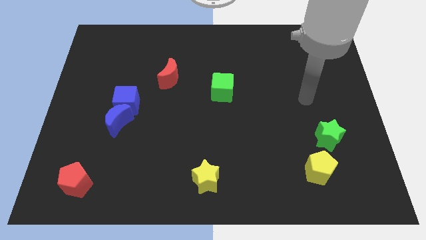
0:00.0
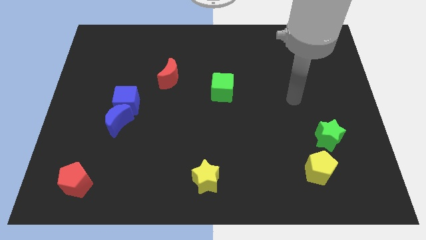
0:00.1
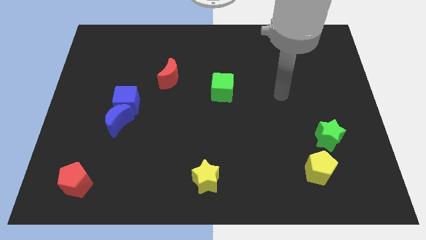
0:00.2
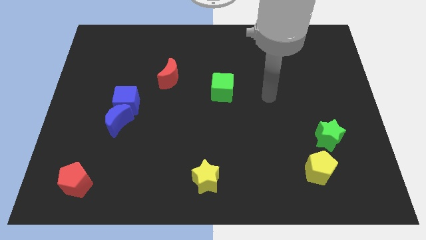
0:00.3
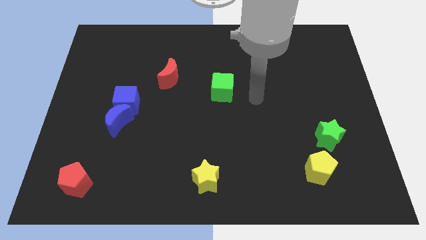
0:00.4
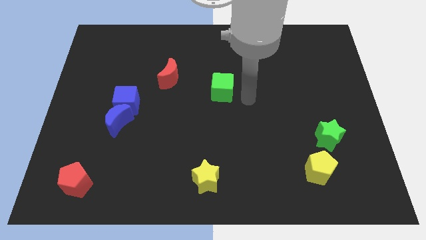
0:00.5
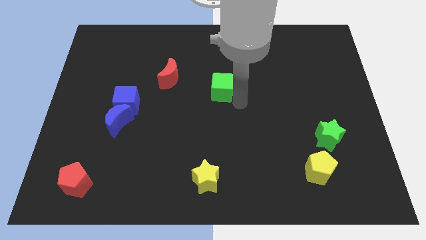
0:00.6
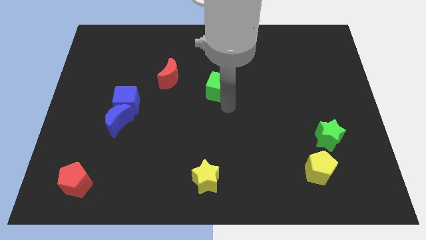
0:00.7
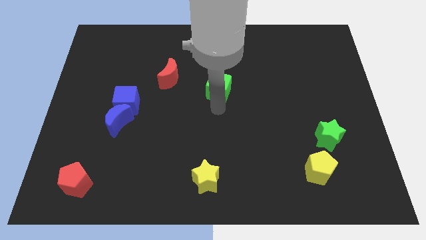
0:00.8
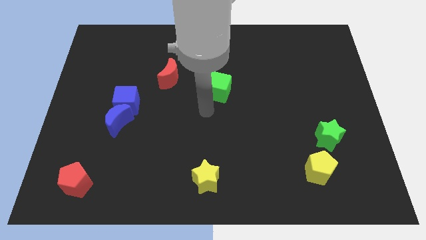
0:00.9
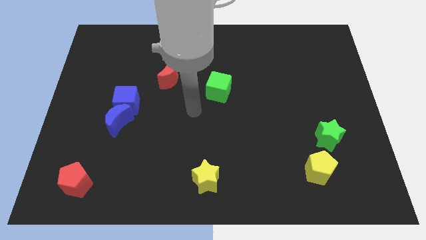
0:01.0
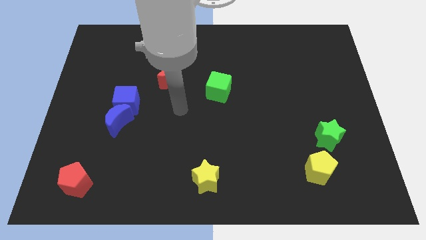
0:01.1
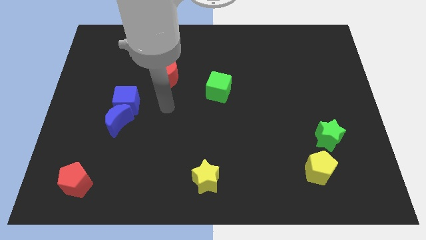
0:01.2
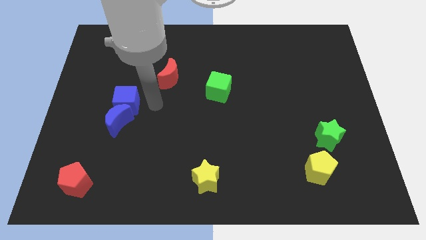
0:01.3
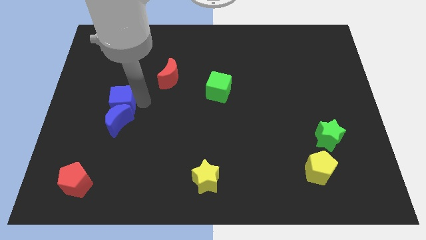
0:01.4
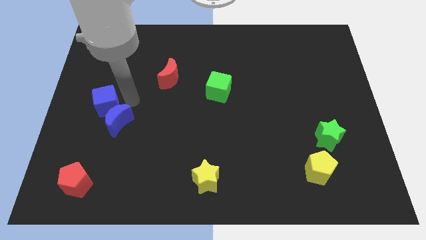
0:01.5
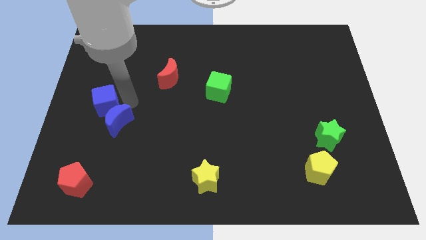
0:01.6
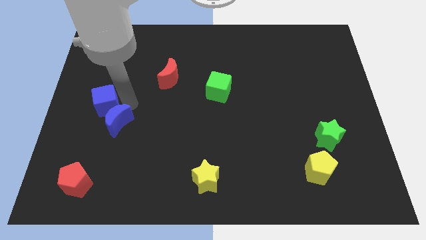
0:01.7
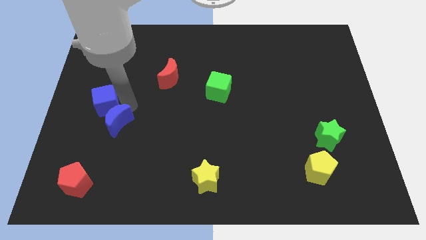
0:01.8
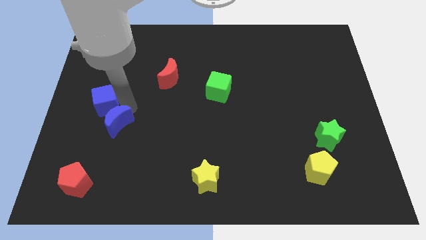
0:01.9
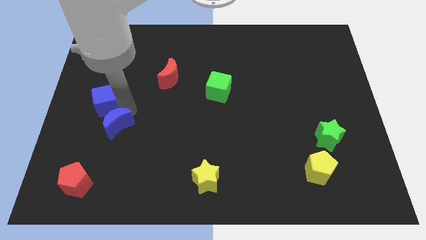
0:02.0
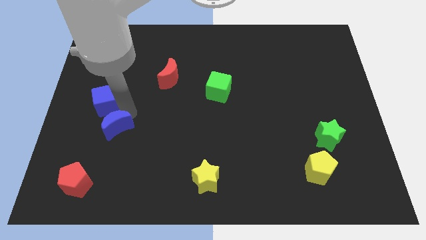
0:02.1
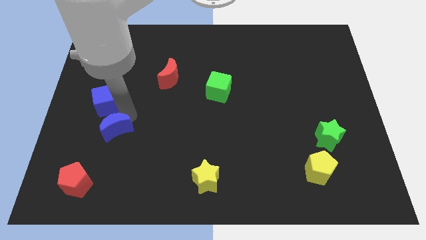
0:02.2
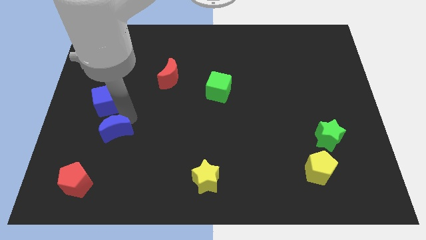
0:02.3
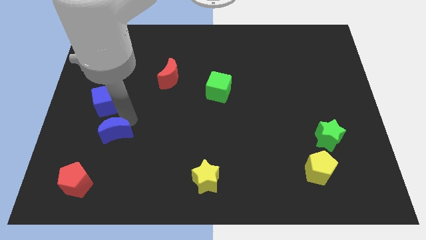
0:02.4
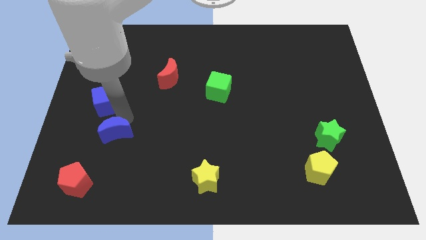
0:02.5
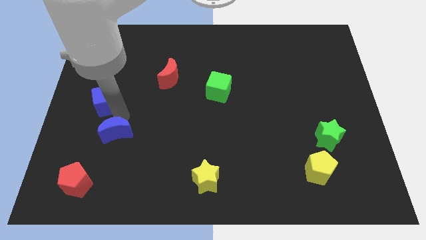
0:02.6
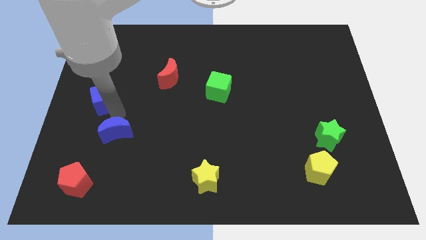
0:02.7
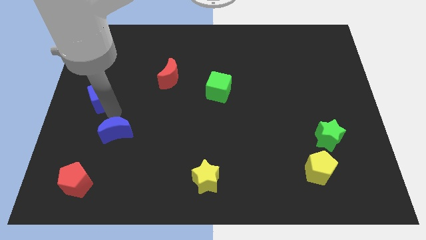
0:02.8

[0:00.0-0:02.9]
separate the blue moon from the blue cube

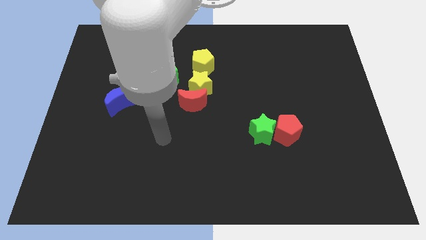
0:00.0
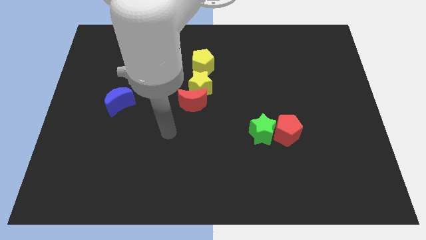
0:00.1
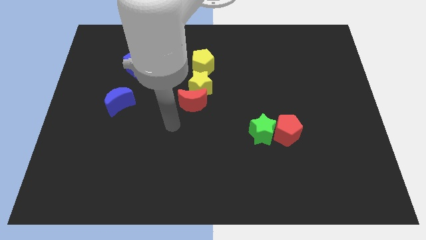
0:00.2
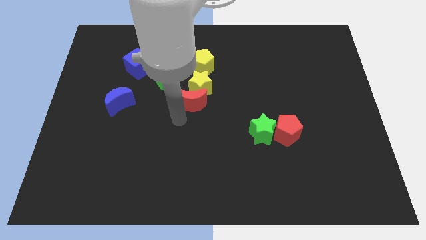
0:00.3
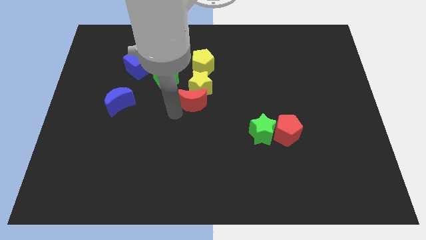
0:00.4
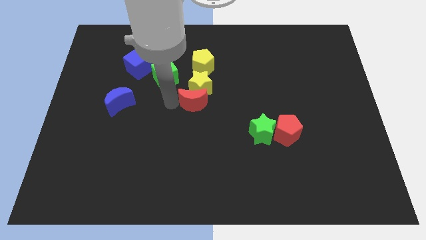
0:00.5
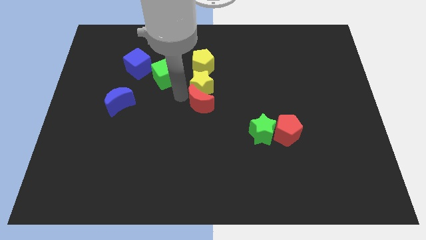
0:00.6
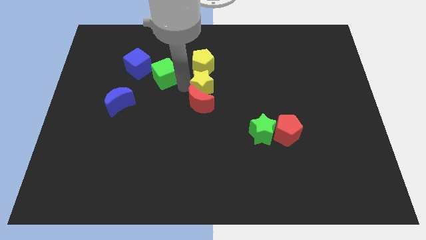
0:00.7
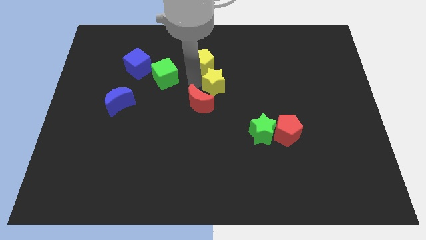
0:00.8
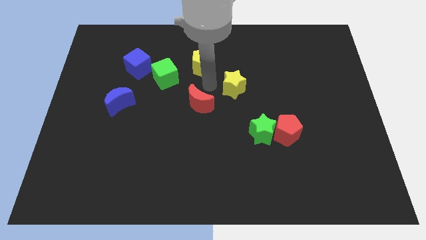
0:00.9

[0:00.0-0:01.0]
move the red moon away from the yellow star

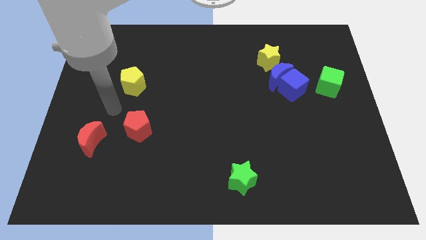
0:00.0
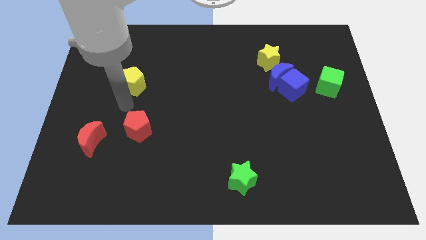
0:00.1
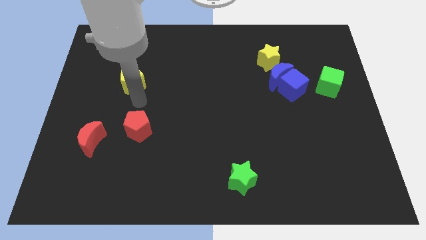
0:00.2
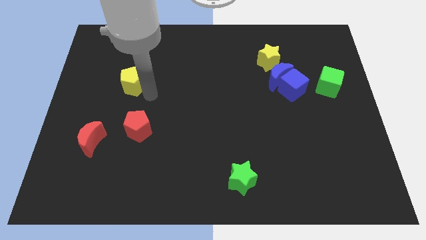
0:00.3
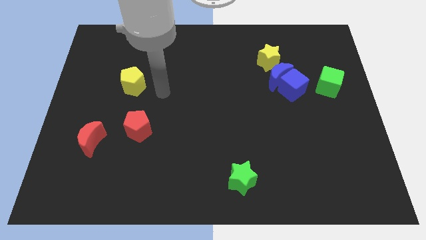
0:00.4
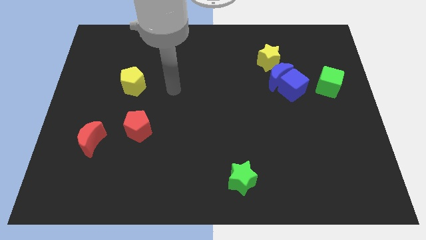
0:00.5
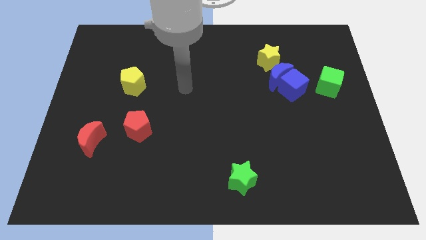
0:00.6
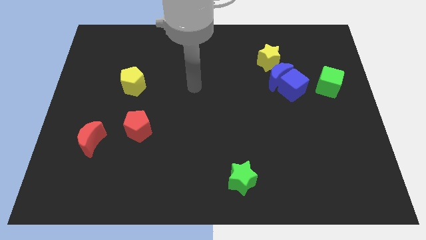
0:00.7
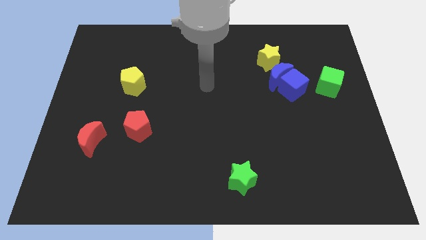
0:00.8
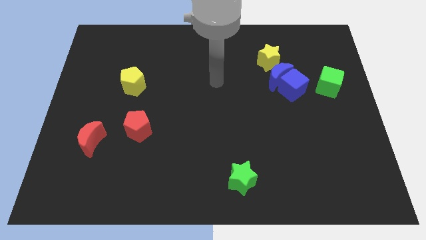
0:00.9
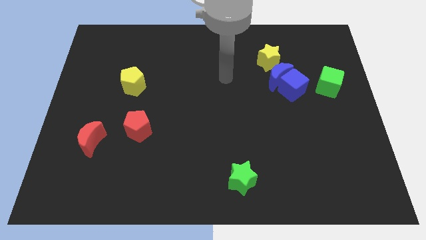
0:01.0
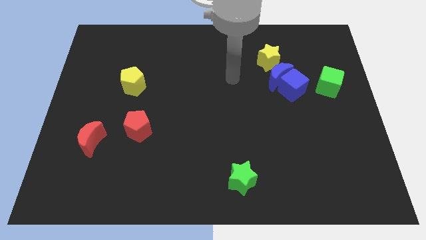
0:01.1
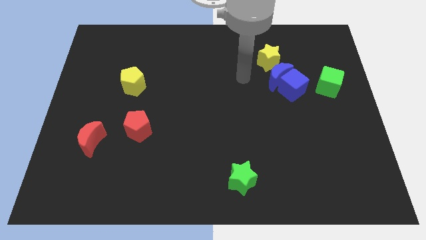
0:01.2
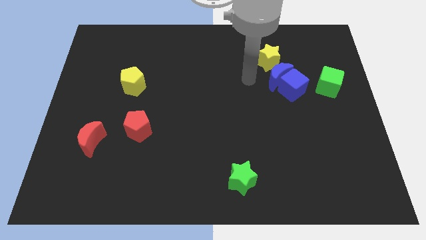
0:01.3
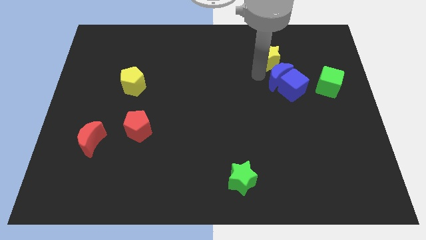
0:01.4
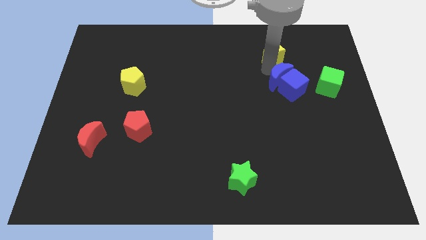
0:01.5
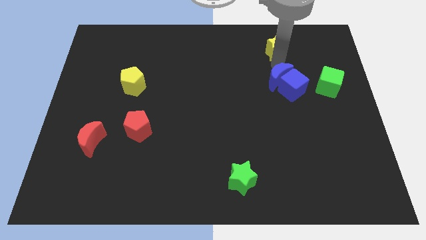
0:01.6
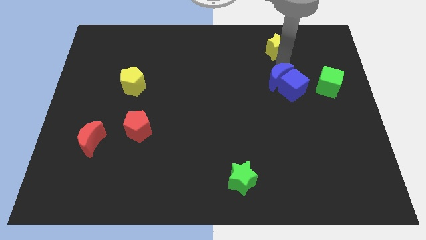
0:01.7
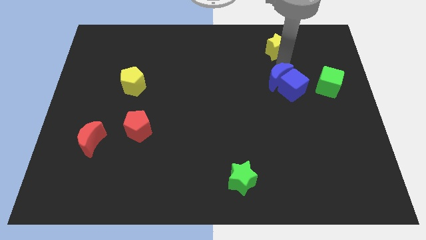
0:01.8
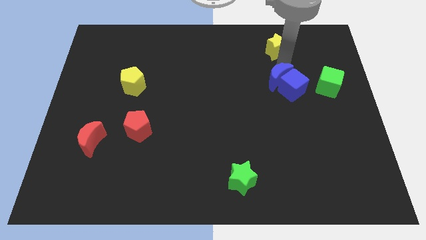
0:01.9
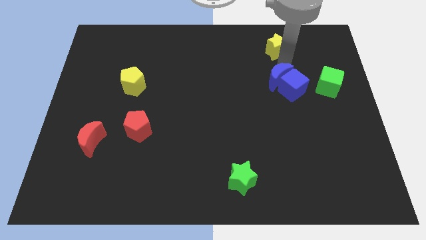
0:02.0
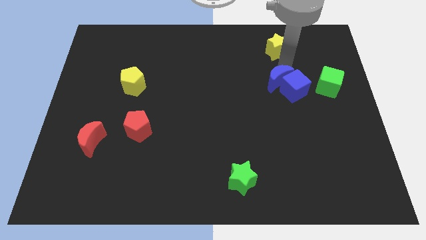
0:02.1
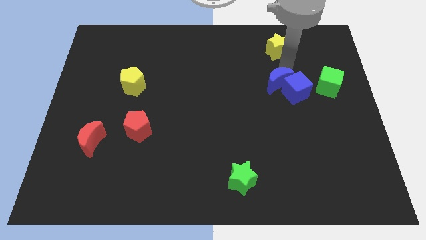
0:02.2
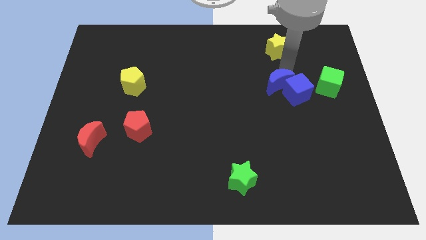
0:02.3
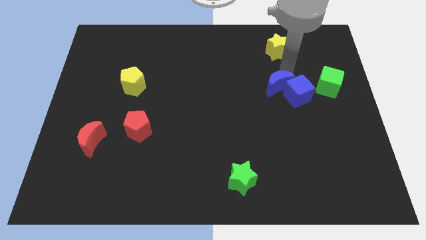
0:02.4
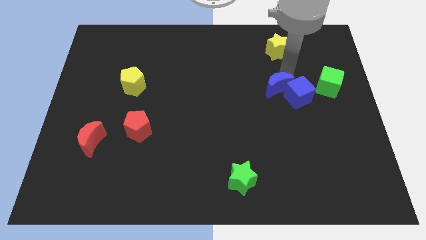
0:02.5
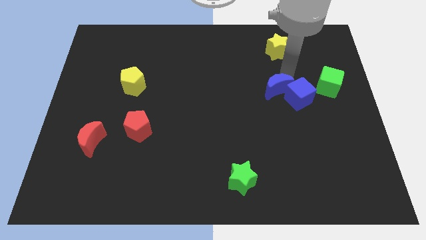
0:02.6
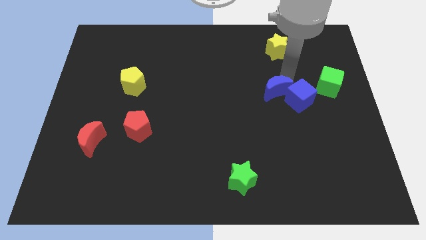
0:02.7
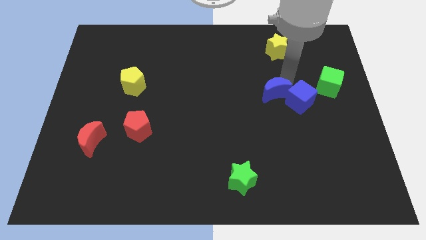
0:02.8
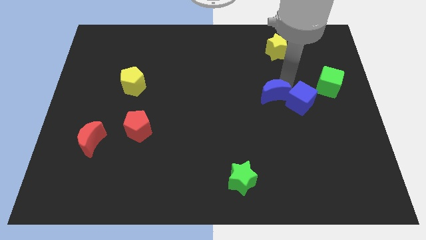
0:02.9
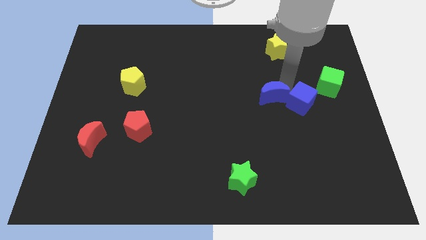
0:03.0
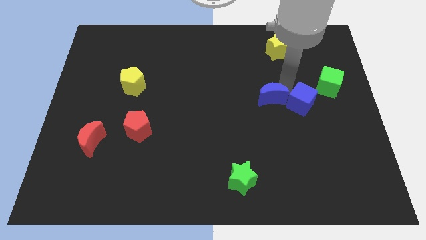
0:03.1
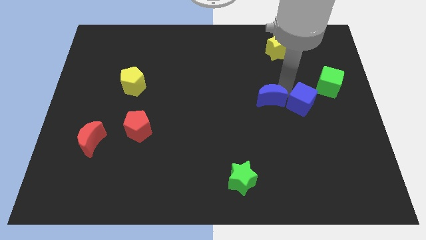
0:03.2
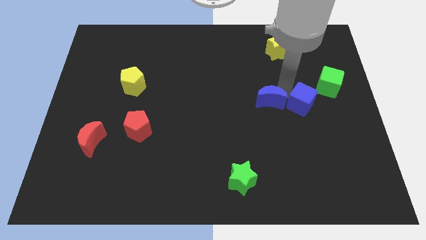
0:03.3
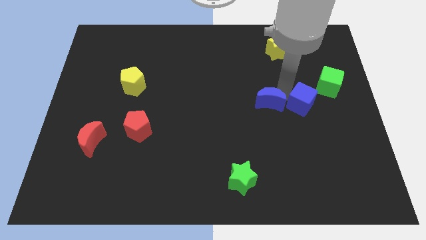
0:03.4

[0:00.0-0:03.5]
pull the blue moon apart from the blue cube and yellow star

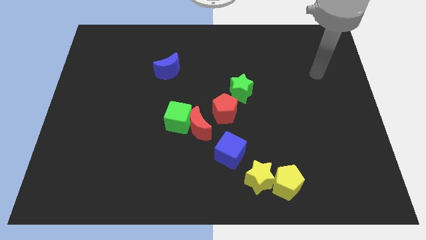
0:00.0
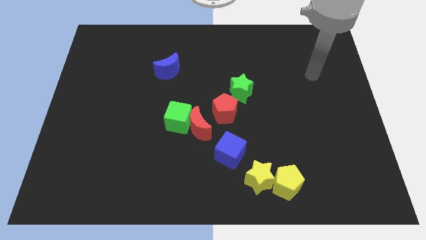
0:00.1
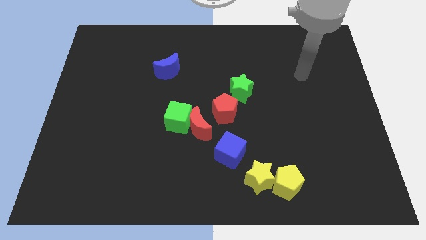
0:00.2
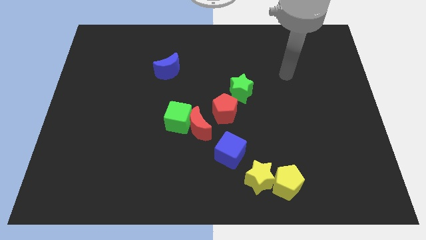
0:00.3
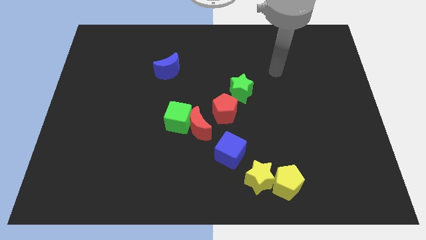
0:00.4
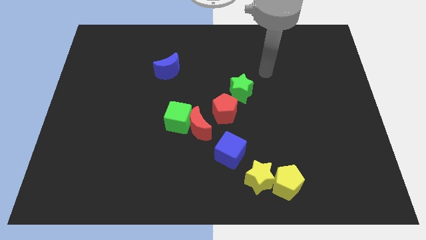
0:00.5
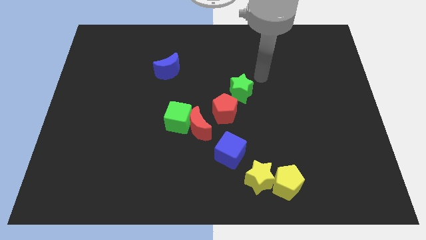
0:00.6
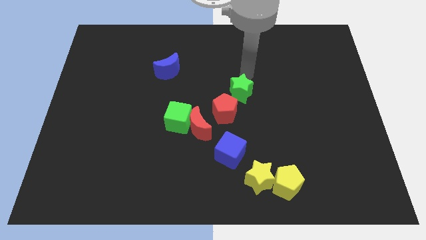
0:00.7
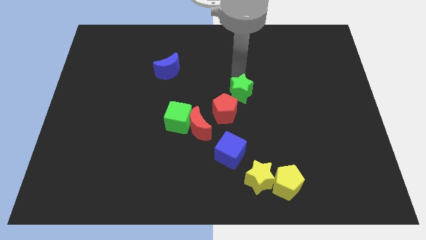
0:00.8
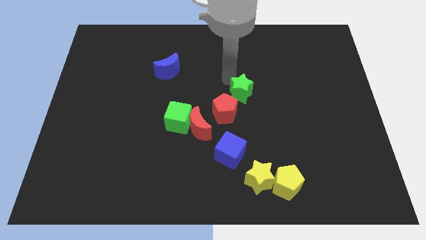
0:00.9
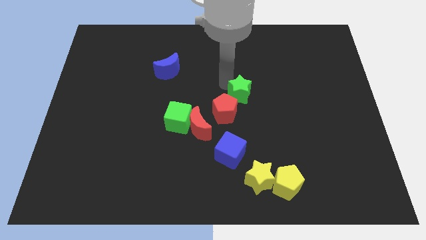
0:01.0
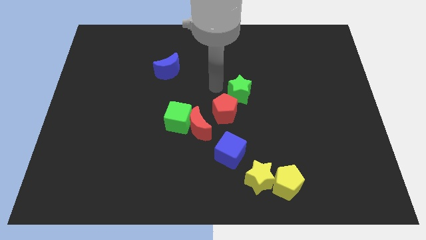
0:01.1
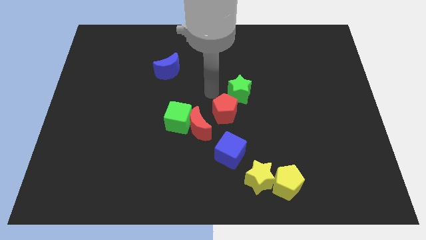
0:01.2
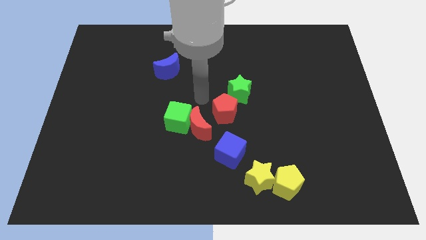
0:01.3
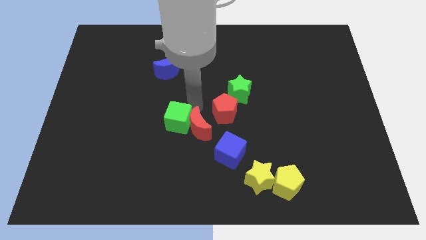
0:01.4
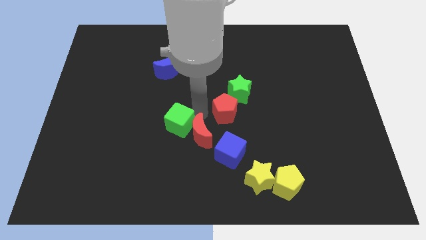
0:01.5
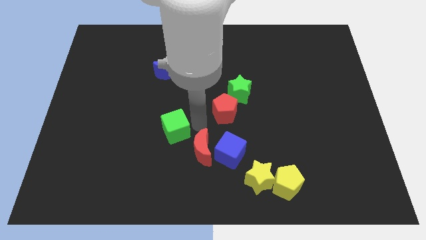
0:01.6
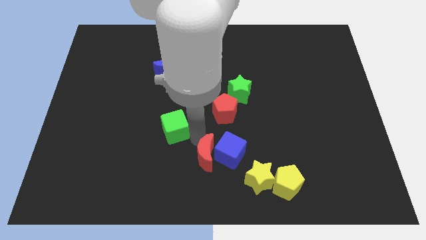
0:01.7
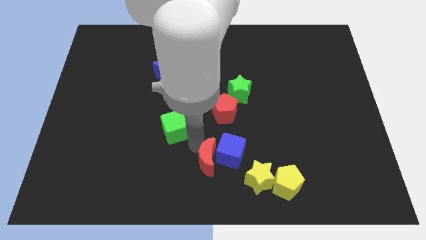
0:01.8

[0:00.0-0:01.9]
move the green cube away from the red moon

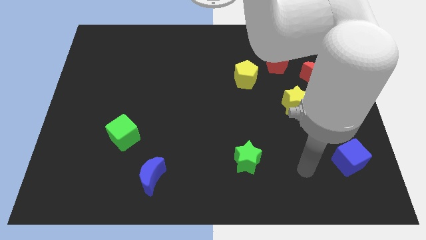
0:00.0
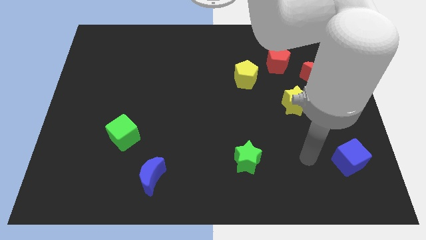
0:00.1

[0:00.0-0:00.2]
move the yellow star away from the red moon
